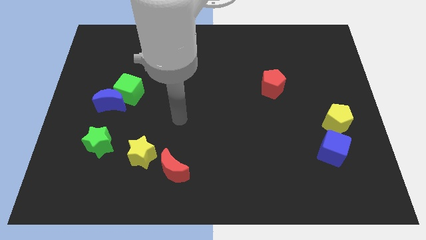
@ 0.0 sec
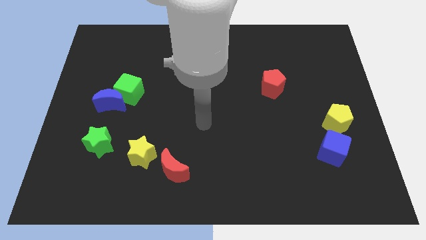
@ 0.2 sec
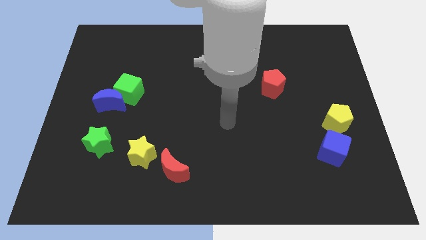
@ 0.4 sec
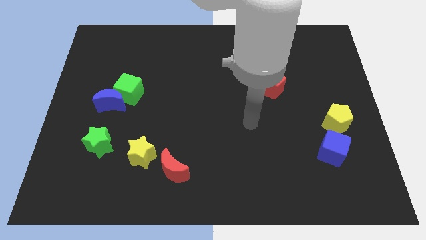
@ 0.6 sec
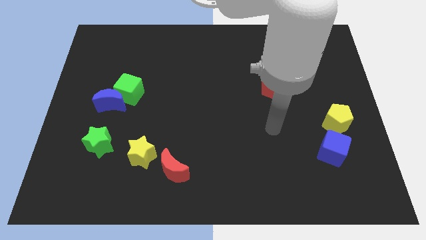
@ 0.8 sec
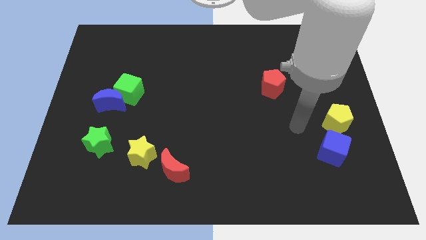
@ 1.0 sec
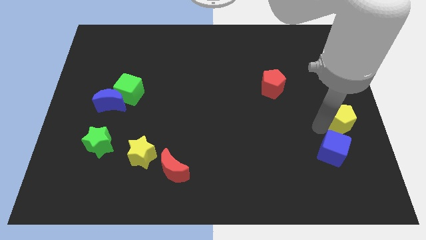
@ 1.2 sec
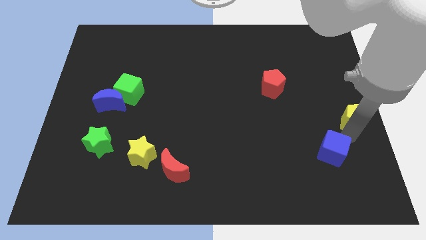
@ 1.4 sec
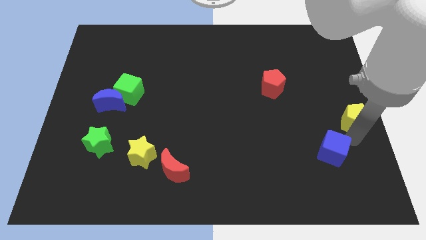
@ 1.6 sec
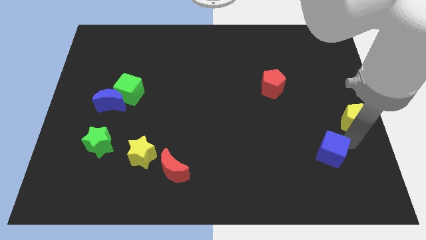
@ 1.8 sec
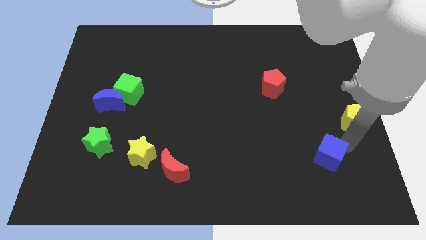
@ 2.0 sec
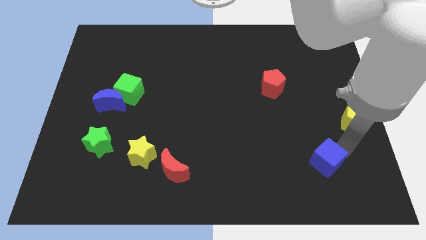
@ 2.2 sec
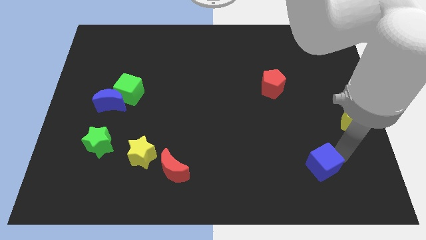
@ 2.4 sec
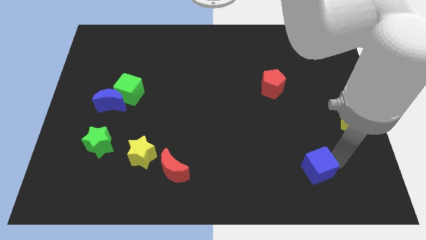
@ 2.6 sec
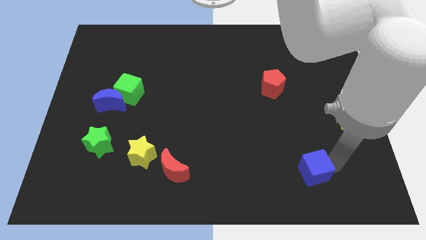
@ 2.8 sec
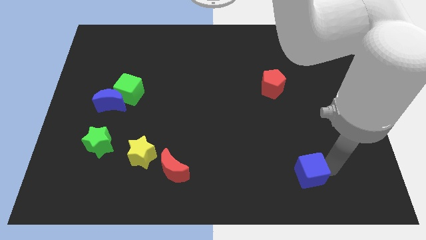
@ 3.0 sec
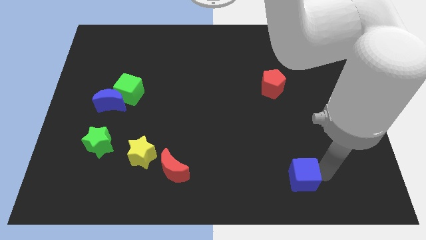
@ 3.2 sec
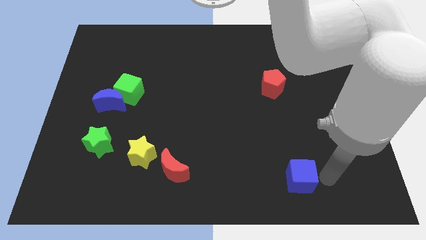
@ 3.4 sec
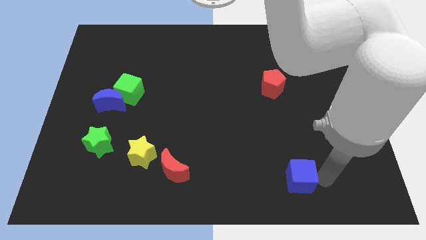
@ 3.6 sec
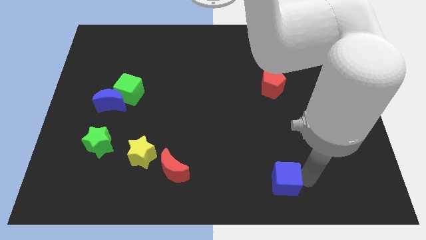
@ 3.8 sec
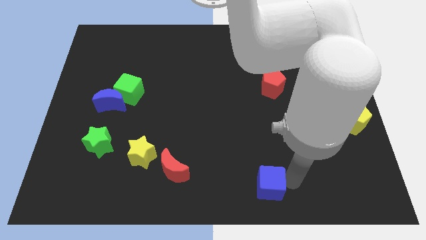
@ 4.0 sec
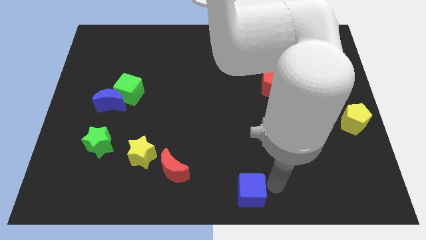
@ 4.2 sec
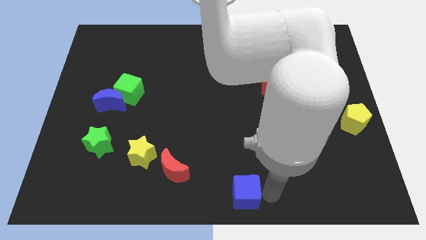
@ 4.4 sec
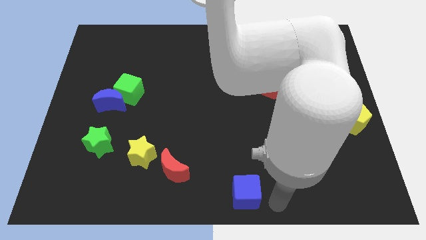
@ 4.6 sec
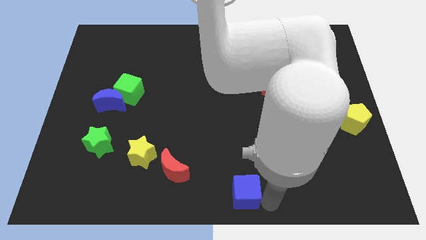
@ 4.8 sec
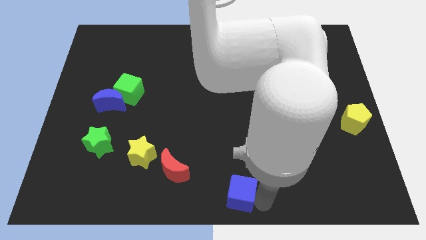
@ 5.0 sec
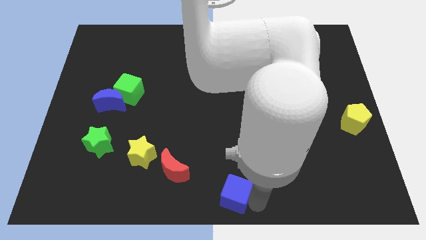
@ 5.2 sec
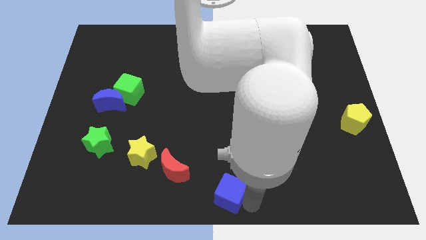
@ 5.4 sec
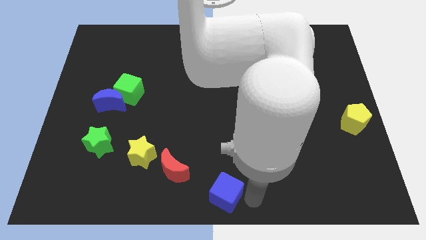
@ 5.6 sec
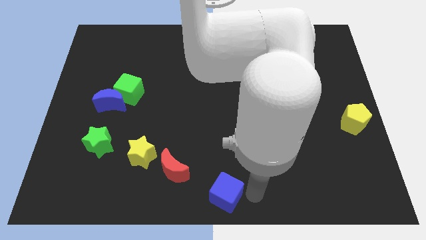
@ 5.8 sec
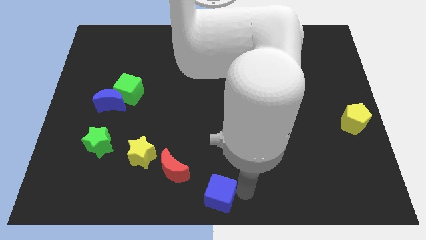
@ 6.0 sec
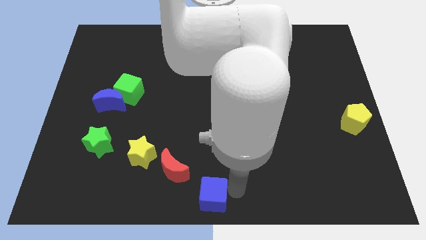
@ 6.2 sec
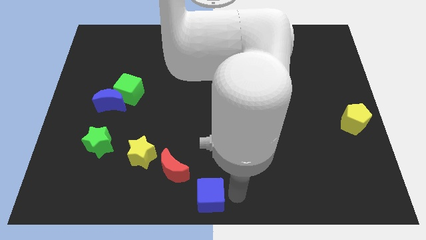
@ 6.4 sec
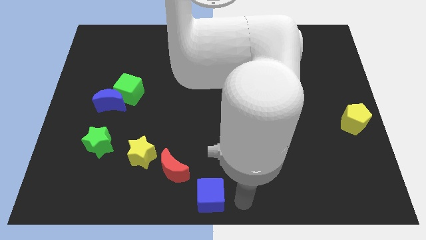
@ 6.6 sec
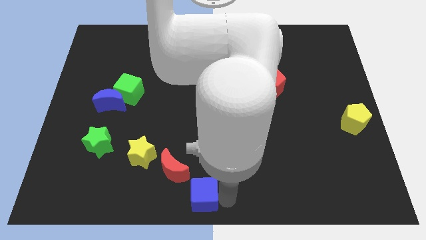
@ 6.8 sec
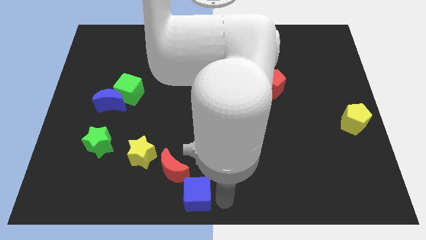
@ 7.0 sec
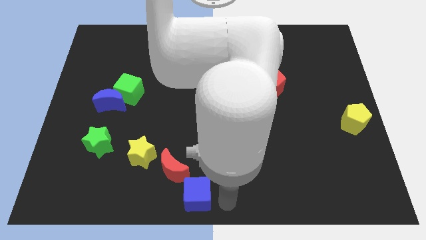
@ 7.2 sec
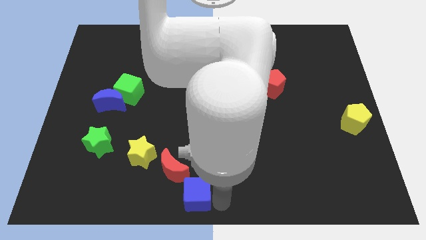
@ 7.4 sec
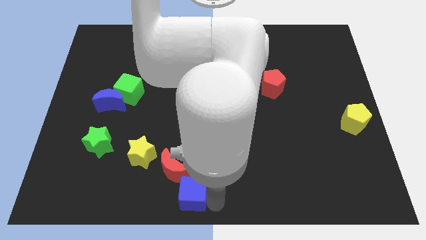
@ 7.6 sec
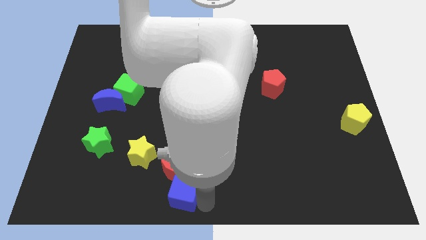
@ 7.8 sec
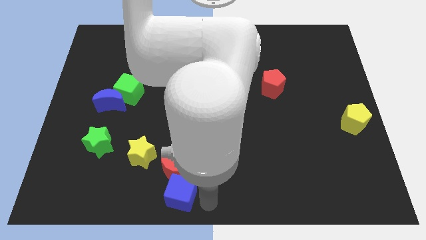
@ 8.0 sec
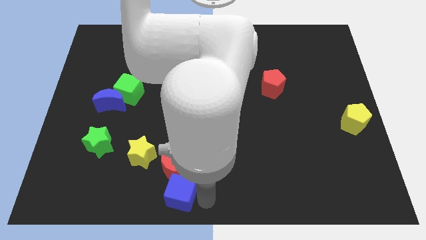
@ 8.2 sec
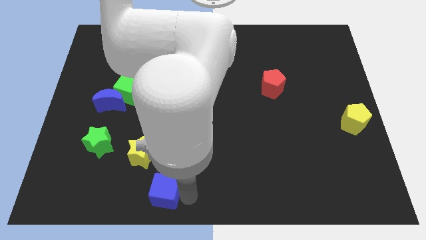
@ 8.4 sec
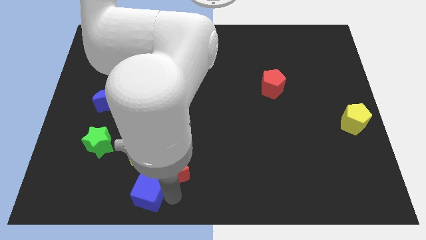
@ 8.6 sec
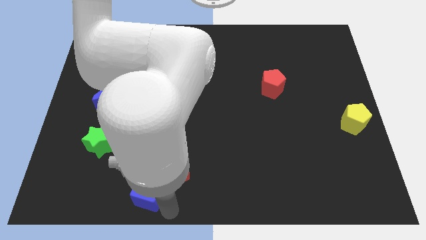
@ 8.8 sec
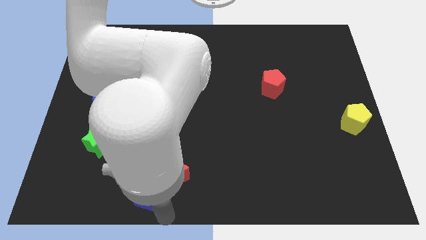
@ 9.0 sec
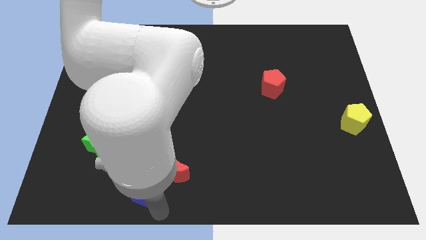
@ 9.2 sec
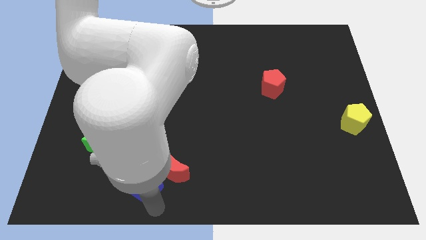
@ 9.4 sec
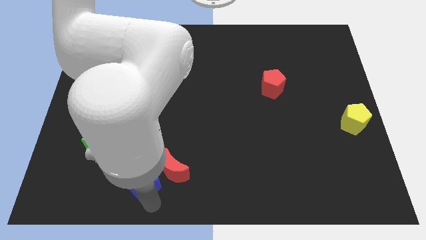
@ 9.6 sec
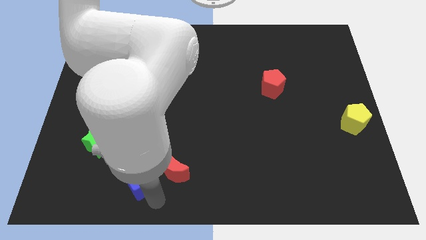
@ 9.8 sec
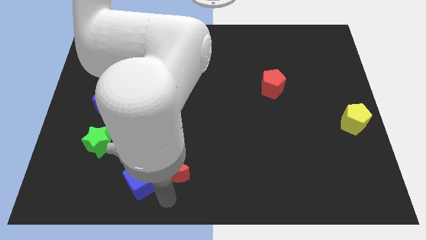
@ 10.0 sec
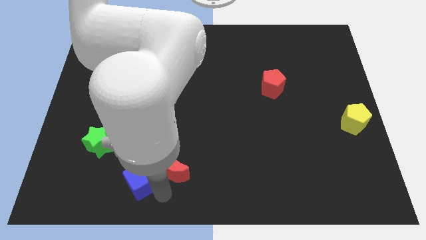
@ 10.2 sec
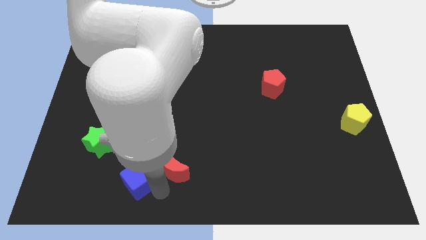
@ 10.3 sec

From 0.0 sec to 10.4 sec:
slide the blue cube to the bottom right of the green star
